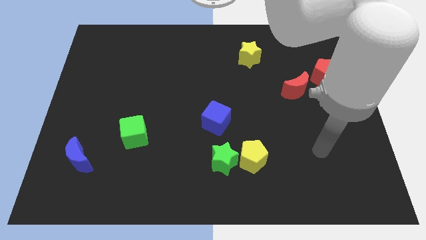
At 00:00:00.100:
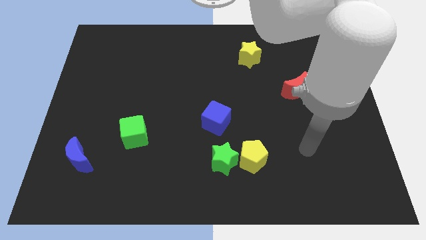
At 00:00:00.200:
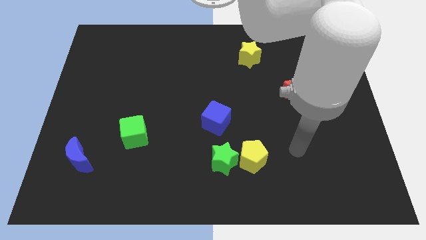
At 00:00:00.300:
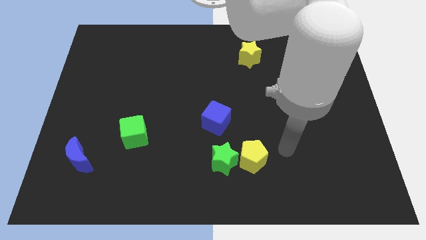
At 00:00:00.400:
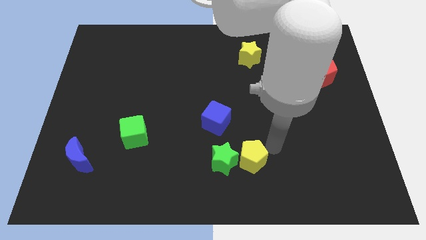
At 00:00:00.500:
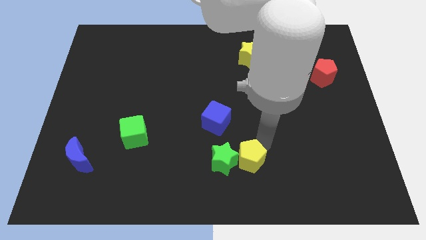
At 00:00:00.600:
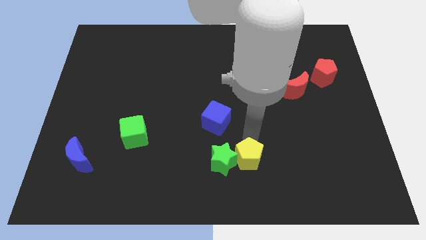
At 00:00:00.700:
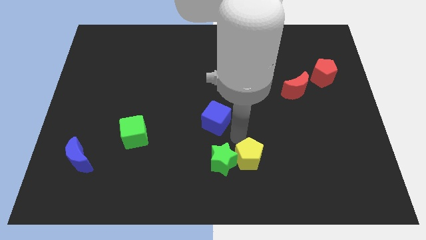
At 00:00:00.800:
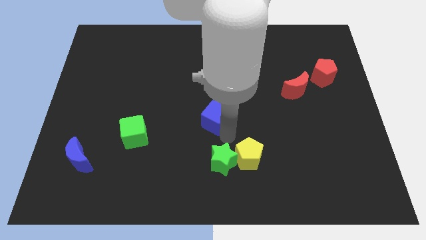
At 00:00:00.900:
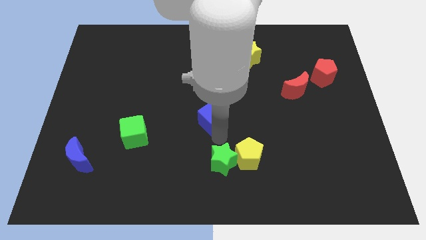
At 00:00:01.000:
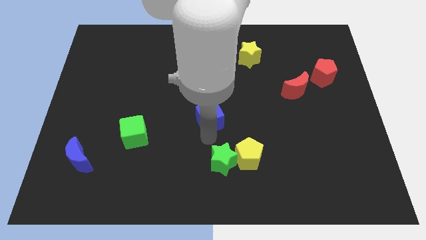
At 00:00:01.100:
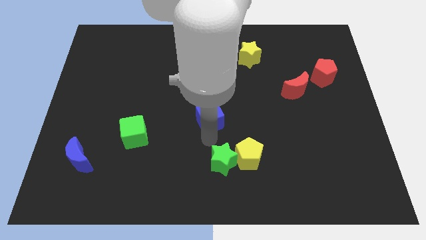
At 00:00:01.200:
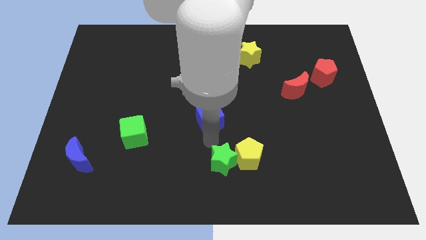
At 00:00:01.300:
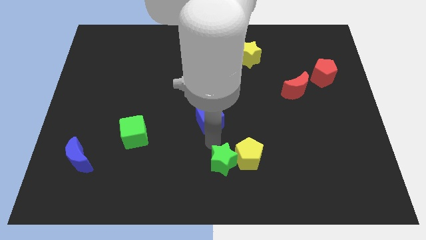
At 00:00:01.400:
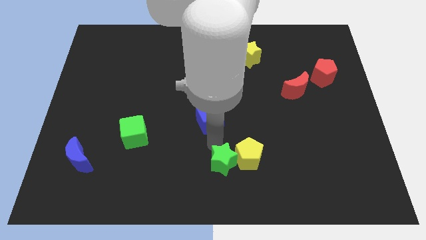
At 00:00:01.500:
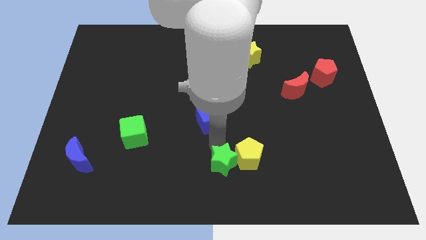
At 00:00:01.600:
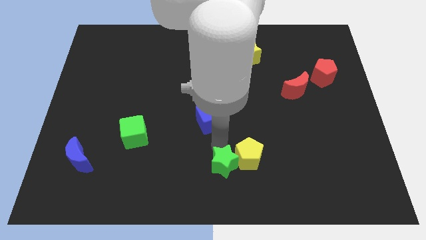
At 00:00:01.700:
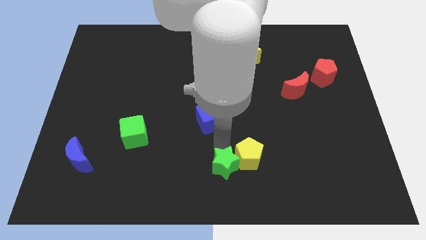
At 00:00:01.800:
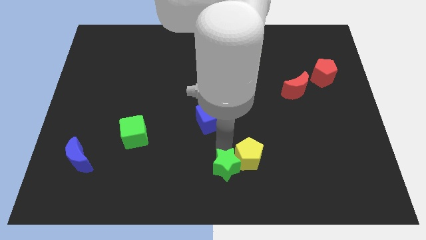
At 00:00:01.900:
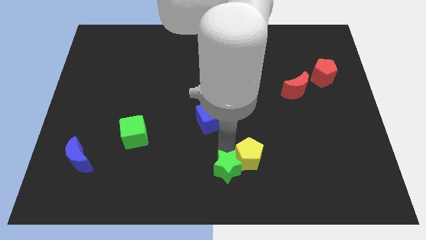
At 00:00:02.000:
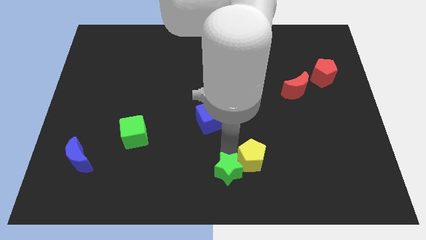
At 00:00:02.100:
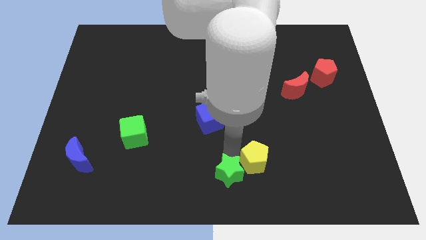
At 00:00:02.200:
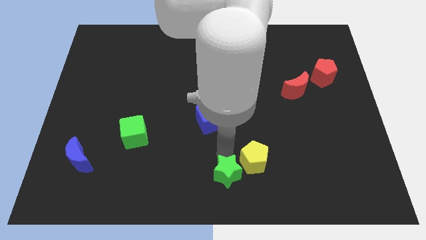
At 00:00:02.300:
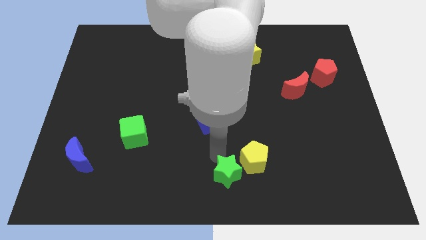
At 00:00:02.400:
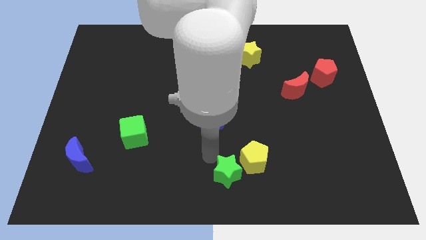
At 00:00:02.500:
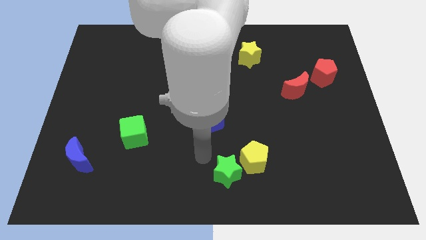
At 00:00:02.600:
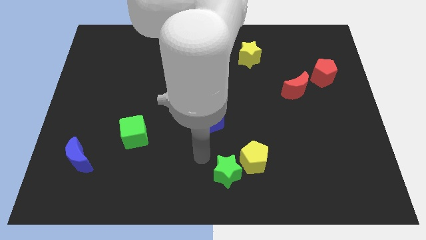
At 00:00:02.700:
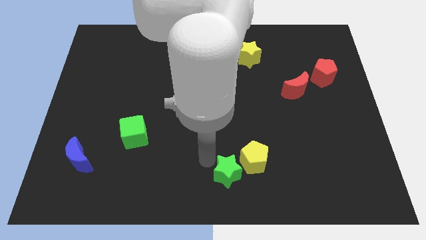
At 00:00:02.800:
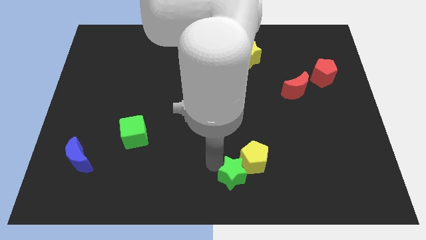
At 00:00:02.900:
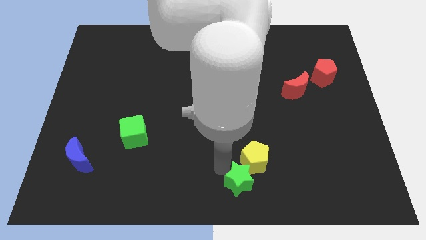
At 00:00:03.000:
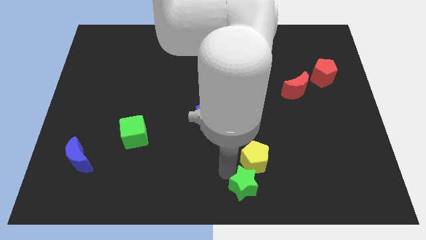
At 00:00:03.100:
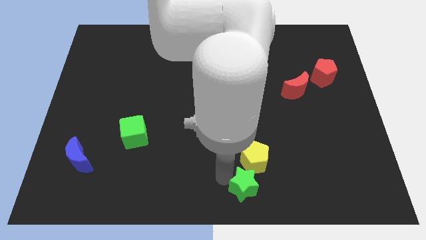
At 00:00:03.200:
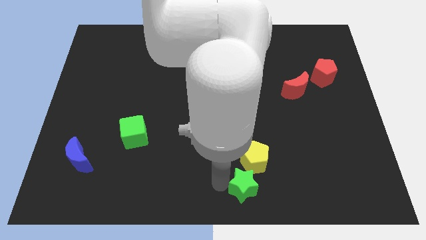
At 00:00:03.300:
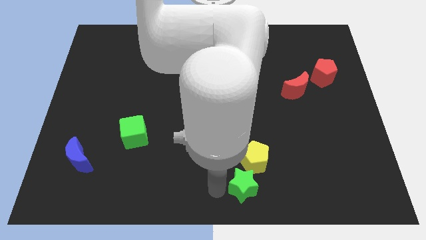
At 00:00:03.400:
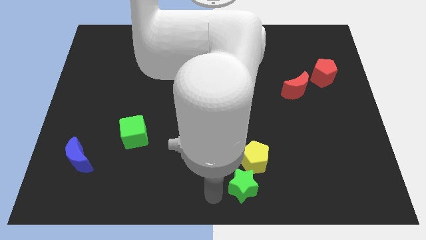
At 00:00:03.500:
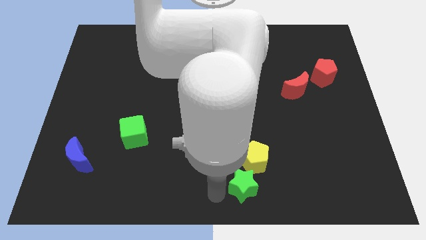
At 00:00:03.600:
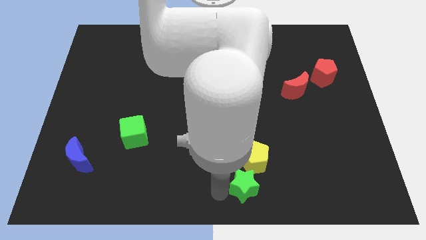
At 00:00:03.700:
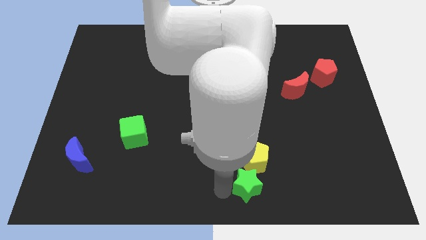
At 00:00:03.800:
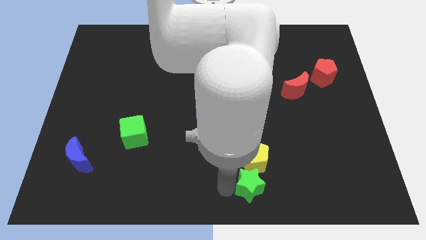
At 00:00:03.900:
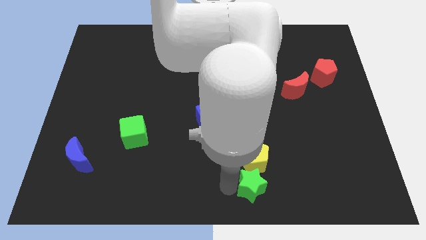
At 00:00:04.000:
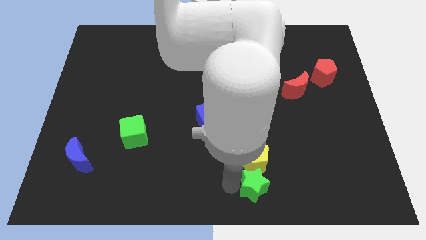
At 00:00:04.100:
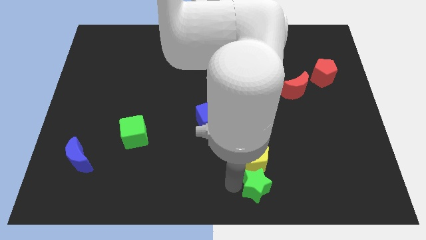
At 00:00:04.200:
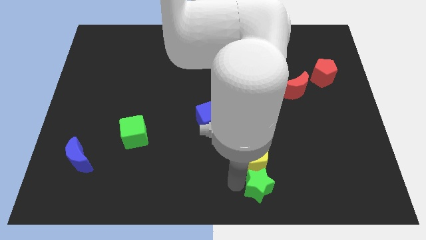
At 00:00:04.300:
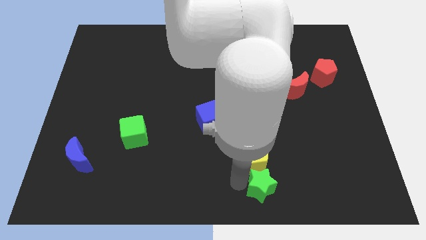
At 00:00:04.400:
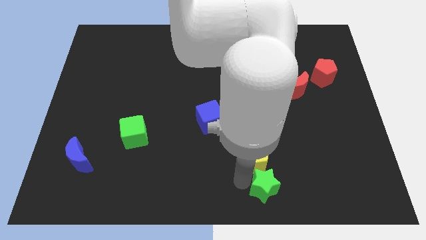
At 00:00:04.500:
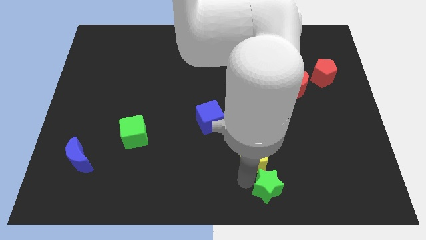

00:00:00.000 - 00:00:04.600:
push the green star right a little bit

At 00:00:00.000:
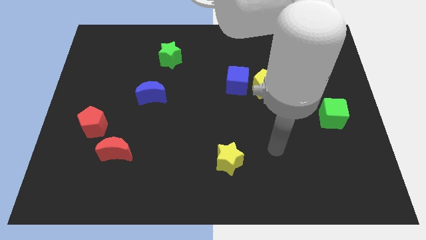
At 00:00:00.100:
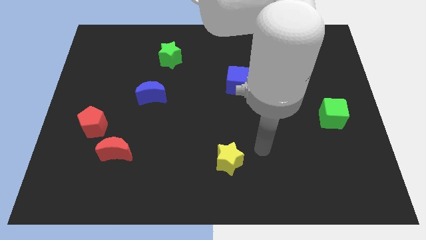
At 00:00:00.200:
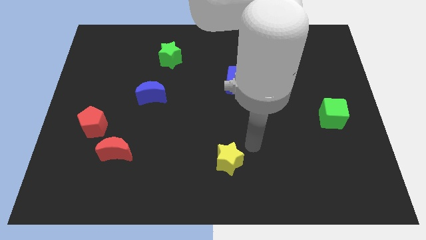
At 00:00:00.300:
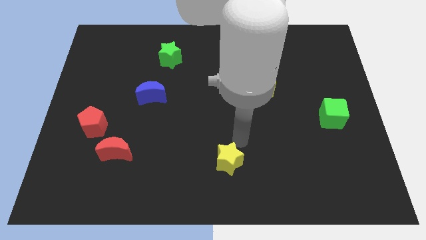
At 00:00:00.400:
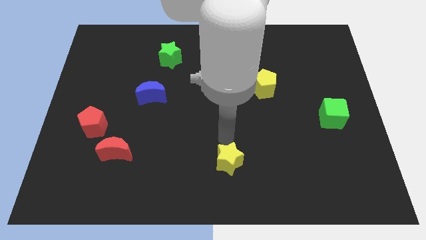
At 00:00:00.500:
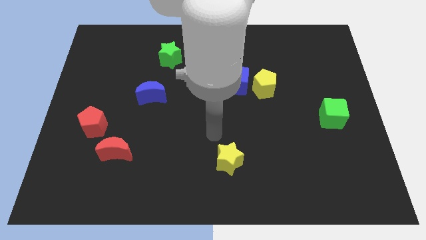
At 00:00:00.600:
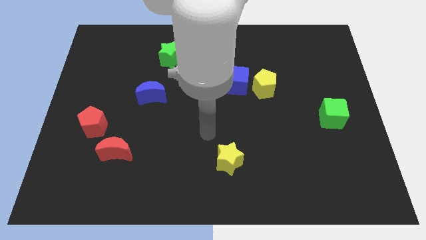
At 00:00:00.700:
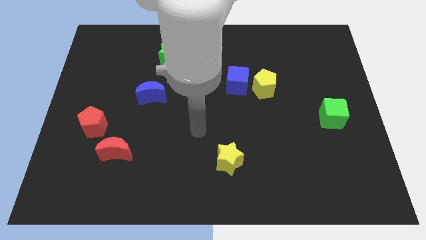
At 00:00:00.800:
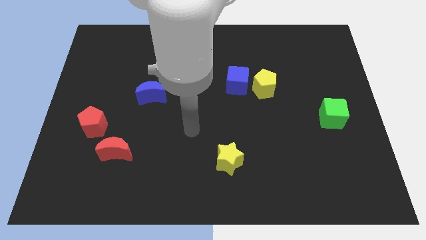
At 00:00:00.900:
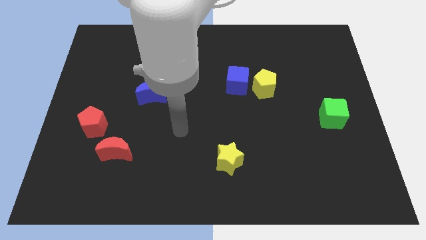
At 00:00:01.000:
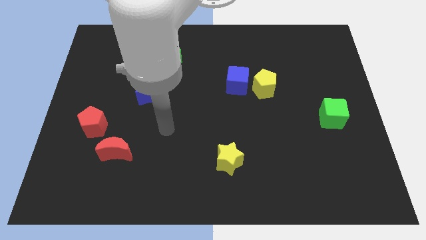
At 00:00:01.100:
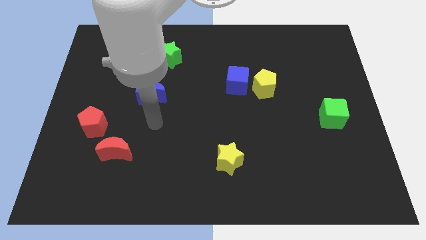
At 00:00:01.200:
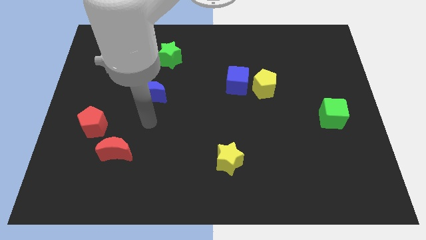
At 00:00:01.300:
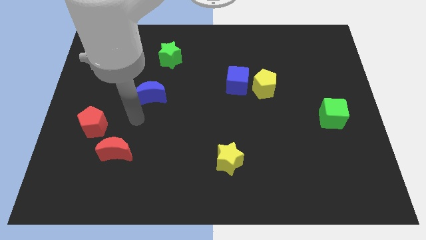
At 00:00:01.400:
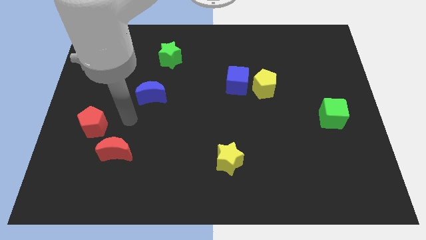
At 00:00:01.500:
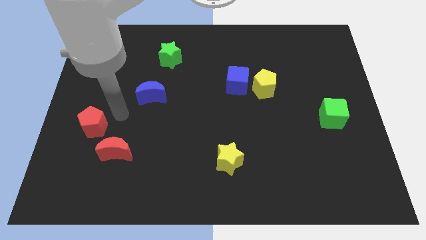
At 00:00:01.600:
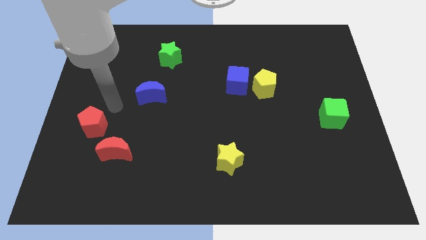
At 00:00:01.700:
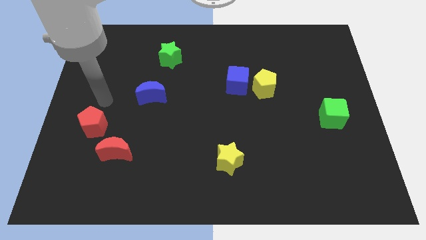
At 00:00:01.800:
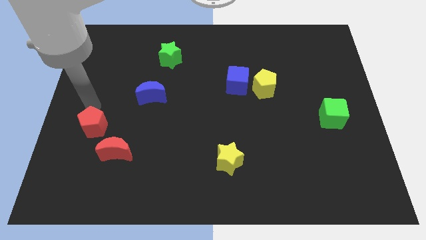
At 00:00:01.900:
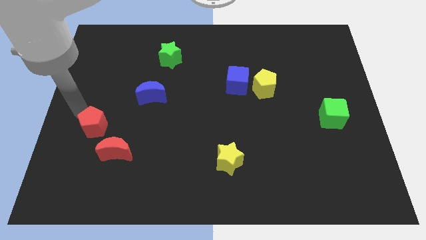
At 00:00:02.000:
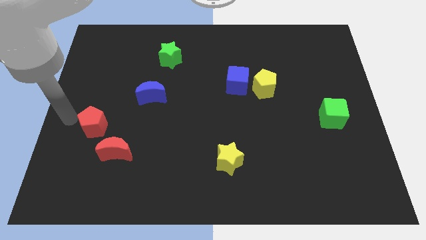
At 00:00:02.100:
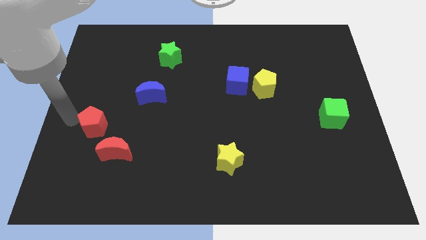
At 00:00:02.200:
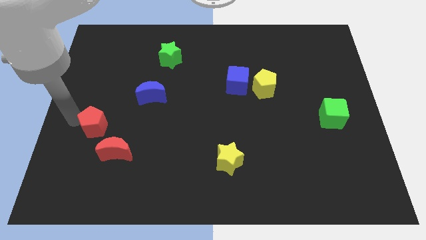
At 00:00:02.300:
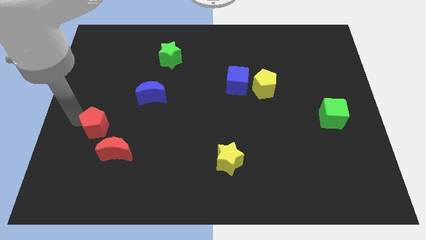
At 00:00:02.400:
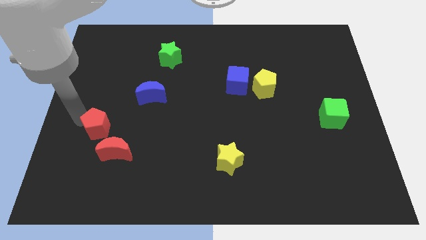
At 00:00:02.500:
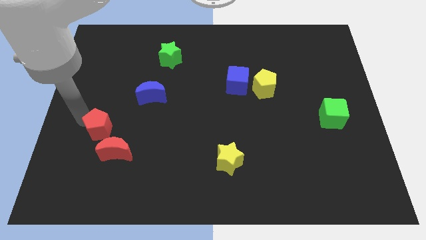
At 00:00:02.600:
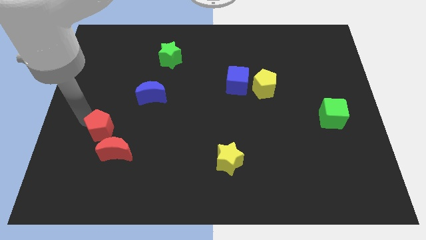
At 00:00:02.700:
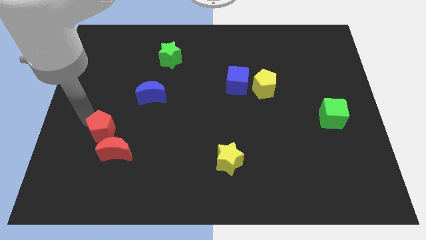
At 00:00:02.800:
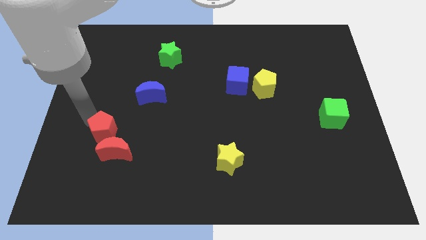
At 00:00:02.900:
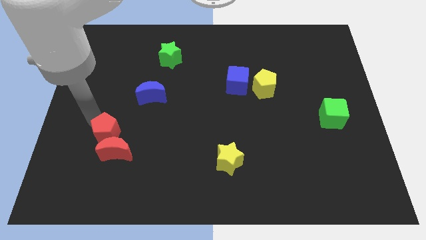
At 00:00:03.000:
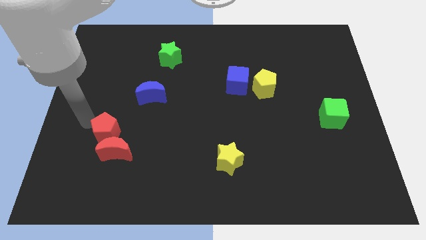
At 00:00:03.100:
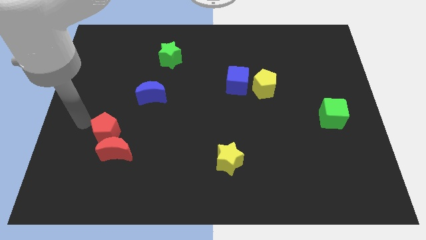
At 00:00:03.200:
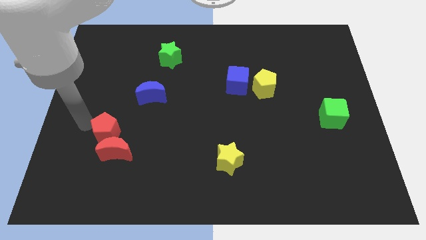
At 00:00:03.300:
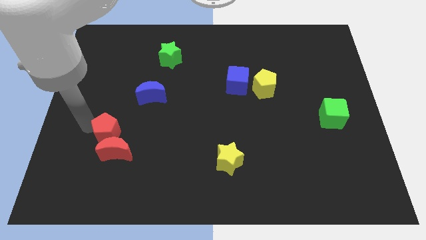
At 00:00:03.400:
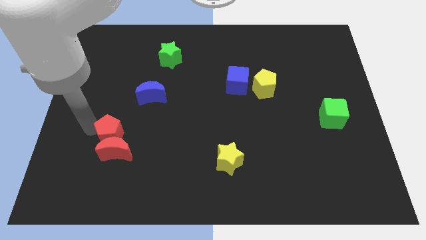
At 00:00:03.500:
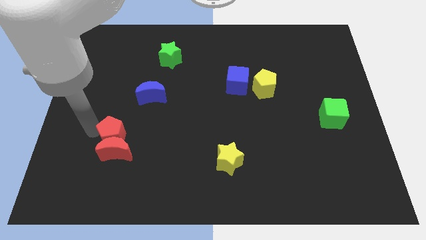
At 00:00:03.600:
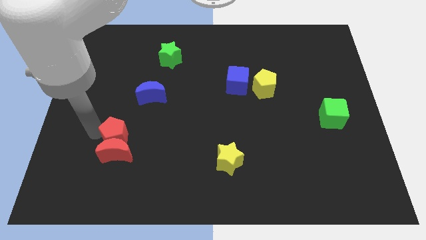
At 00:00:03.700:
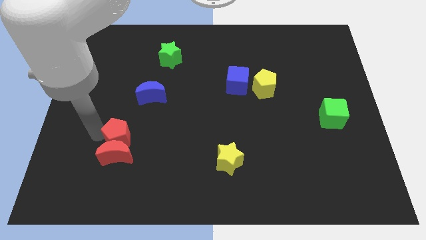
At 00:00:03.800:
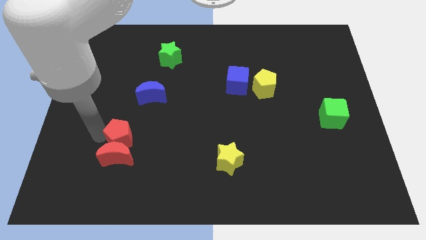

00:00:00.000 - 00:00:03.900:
slide the red pentagon a little bit down and then to the right

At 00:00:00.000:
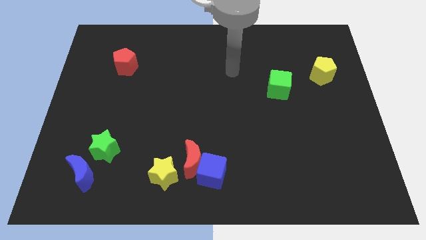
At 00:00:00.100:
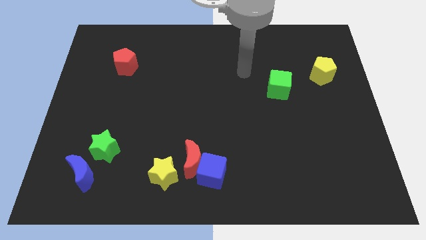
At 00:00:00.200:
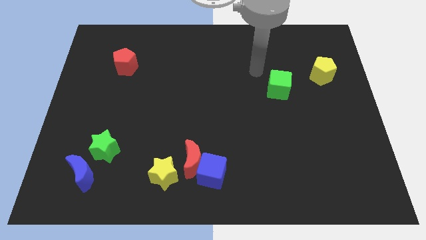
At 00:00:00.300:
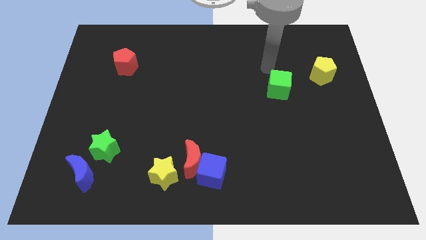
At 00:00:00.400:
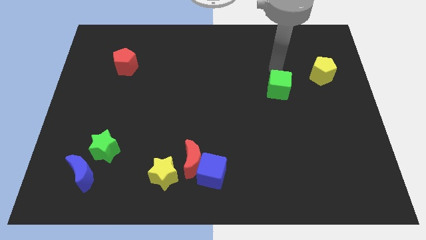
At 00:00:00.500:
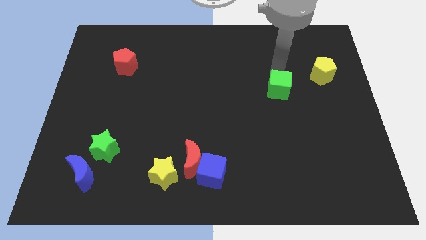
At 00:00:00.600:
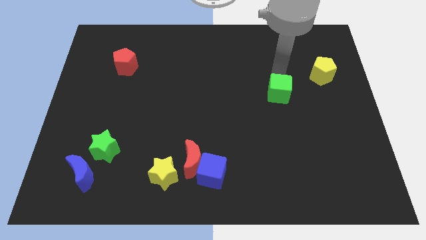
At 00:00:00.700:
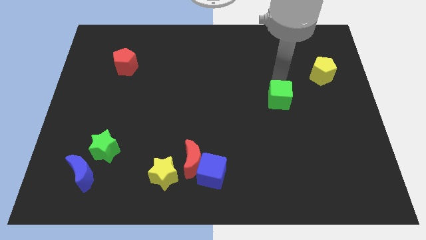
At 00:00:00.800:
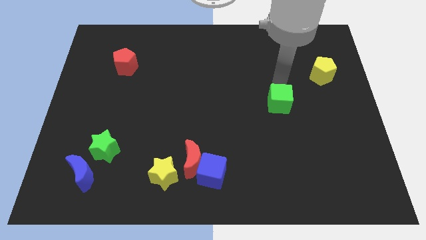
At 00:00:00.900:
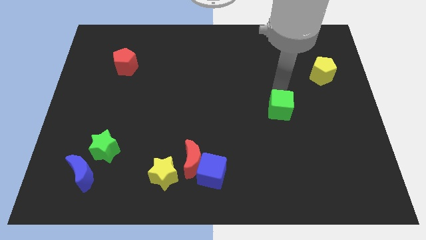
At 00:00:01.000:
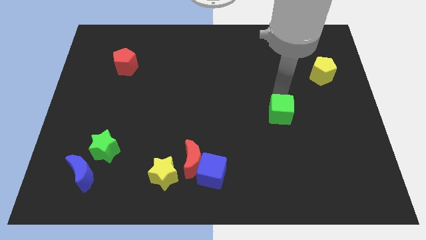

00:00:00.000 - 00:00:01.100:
slide the green cube downwards a bit
